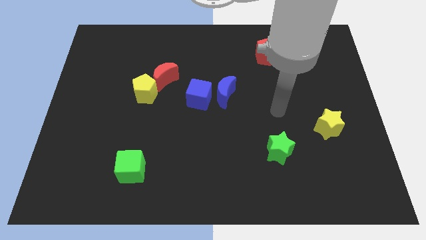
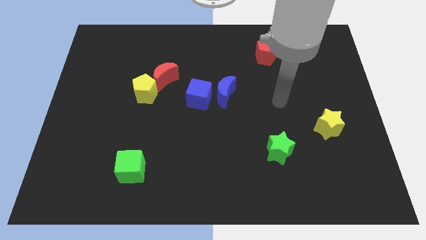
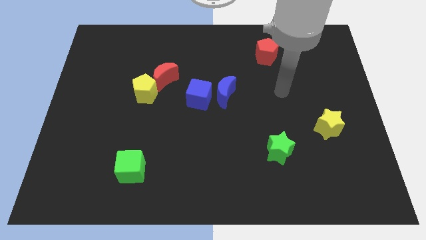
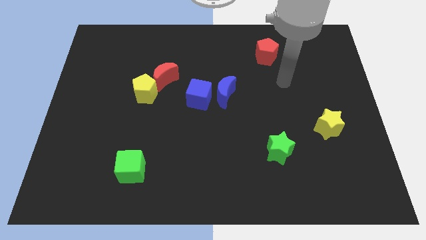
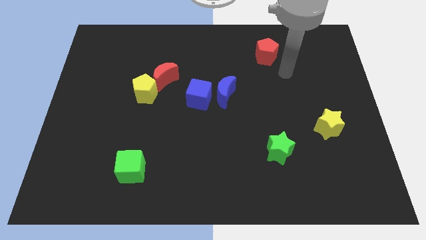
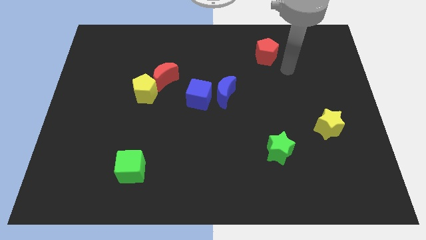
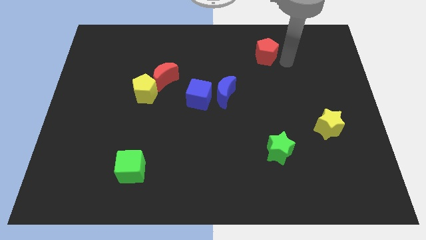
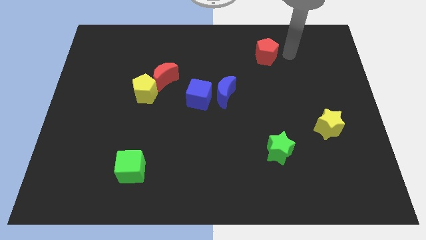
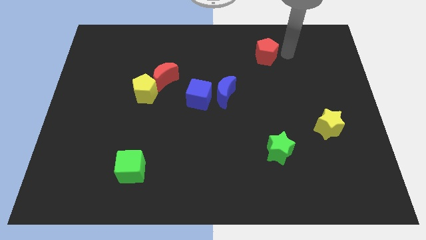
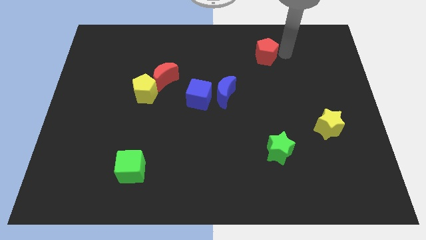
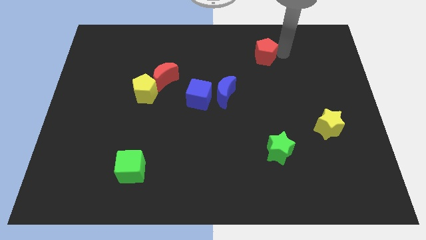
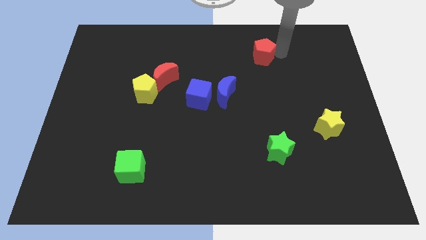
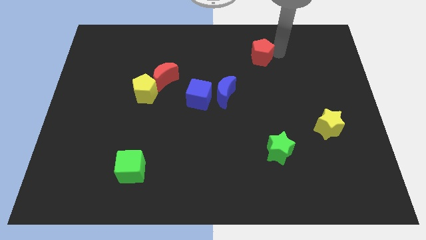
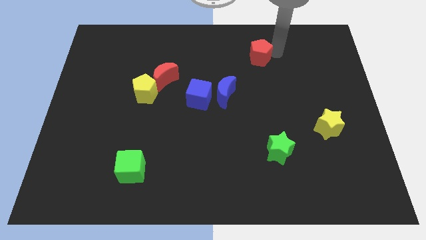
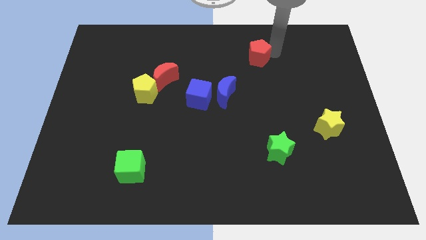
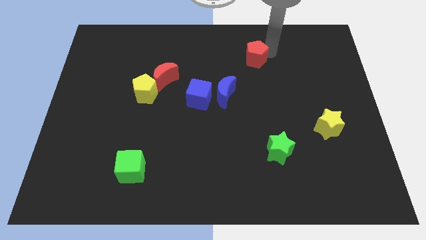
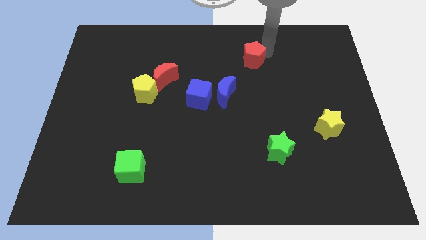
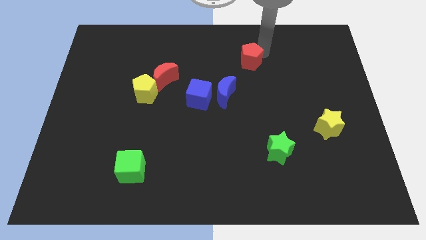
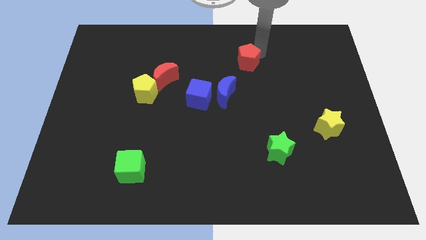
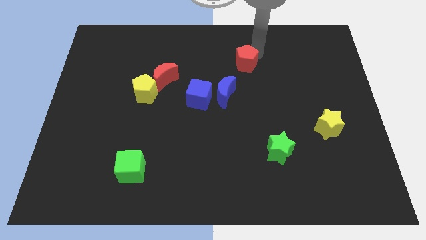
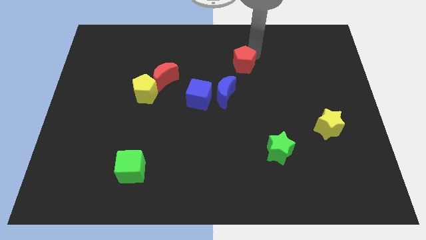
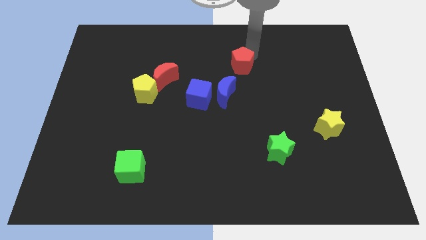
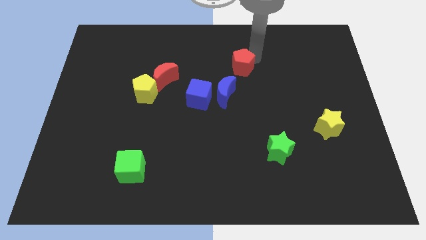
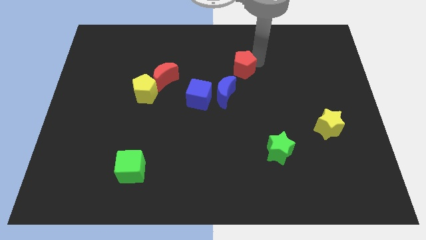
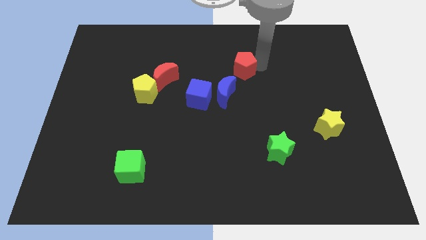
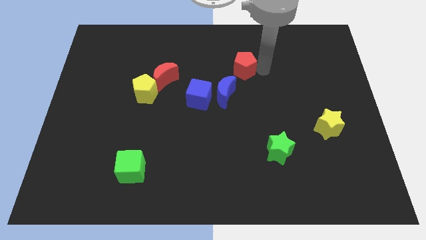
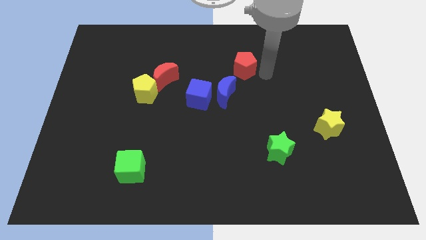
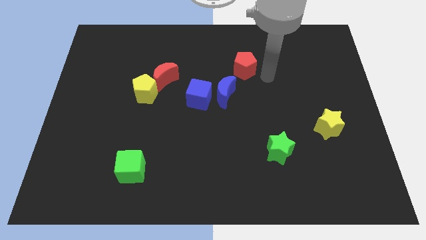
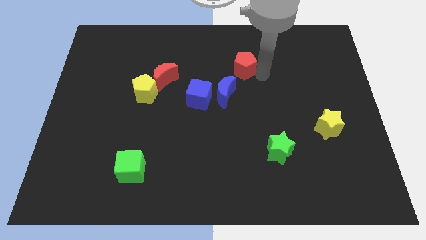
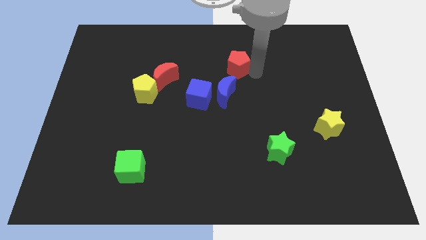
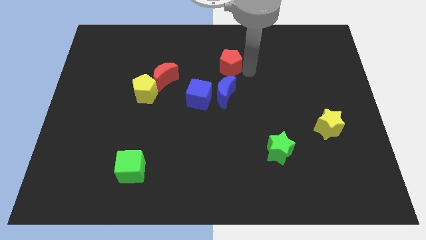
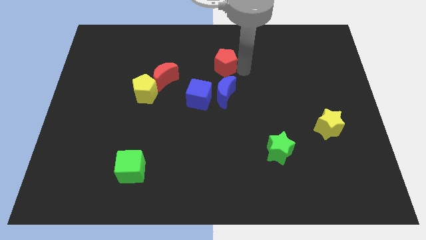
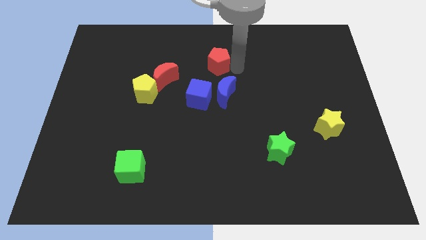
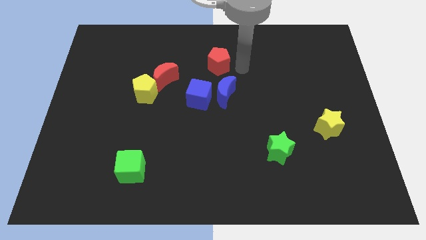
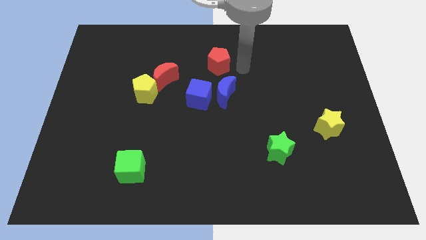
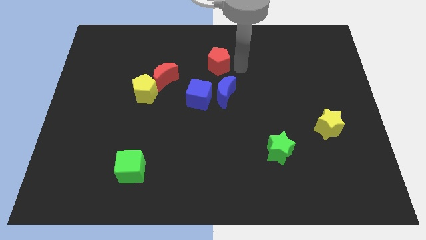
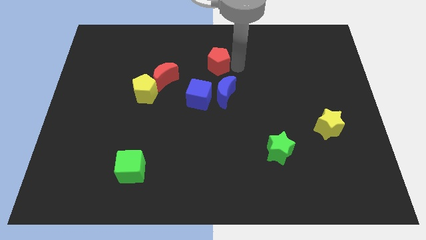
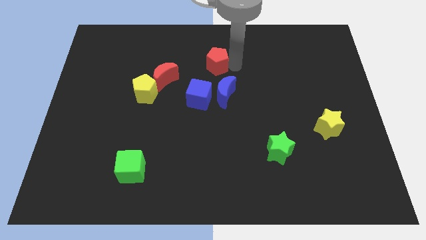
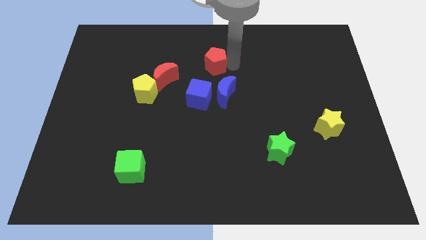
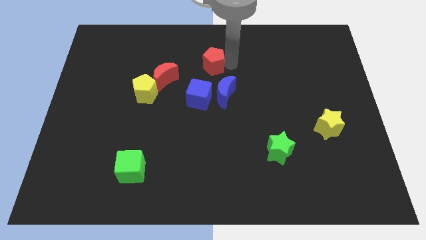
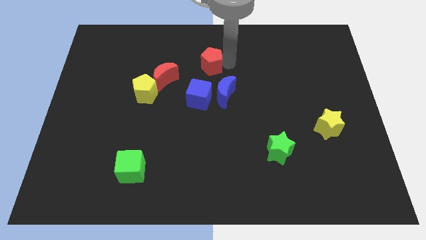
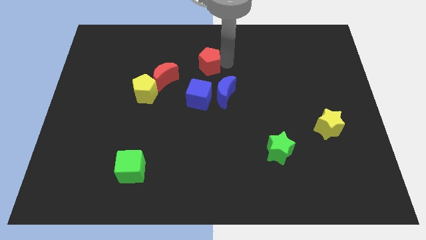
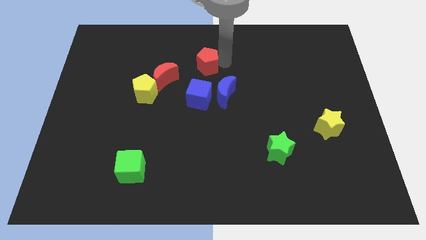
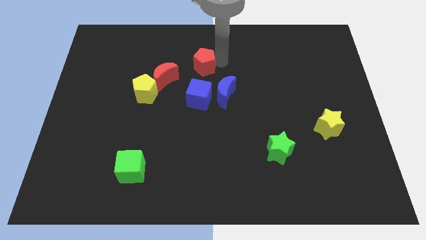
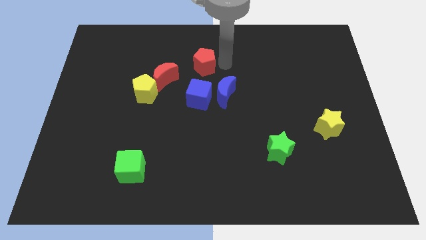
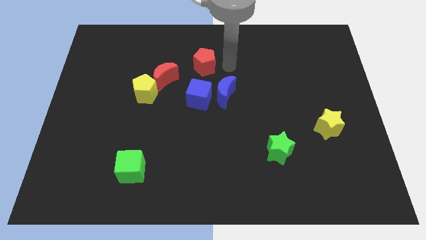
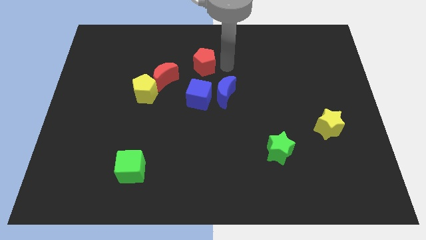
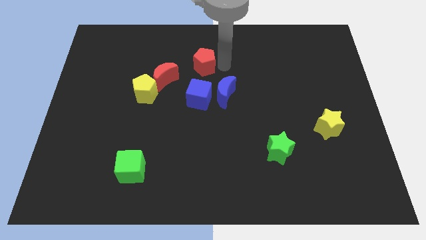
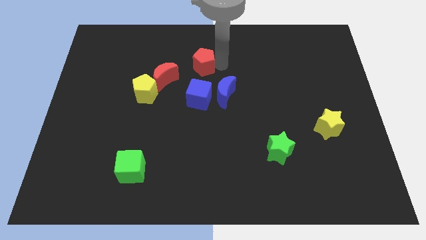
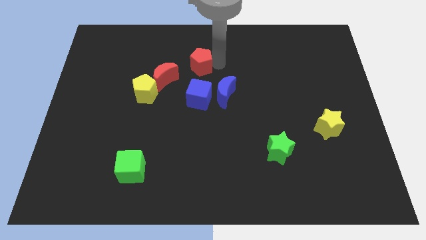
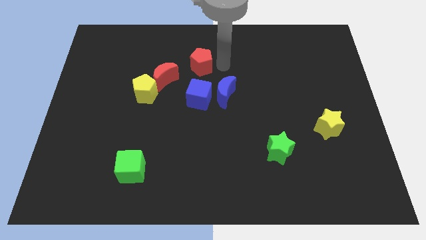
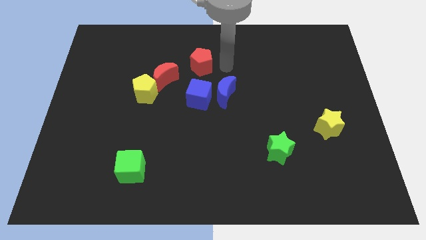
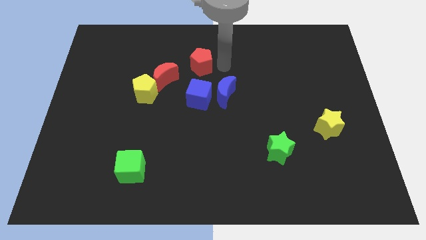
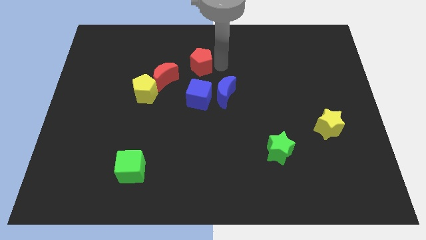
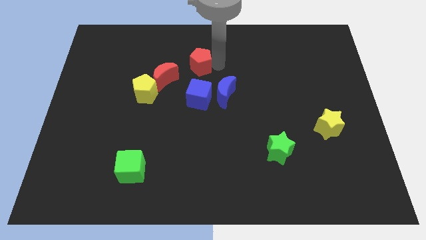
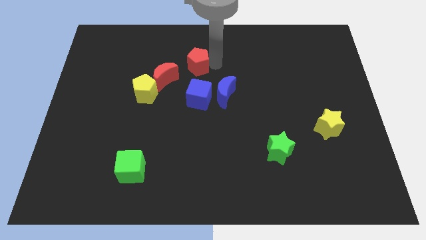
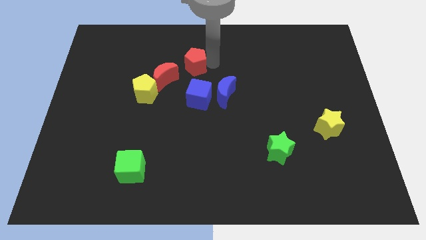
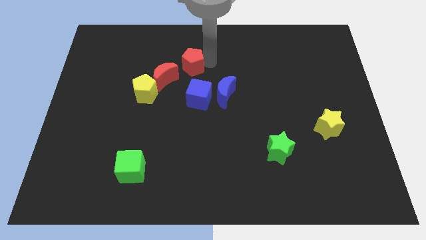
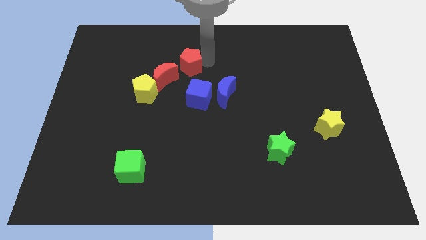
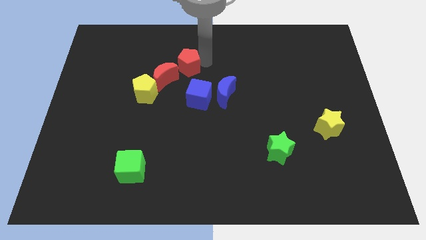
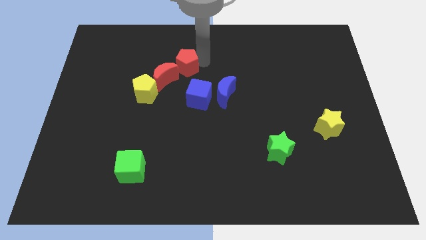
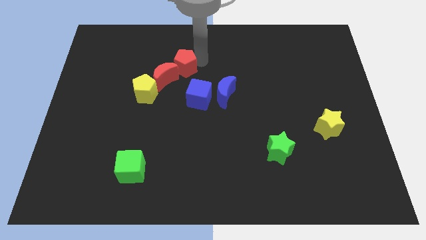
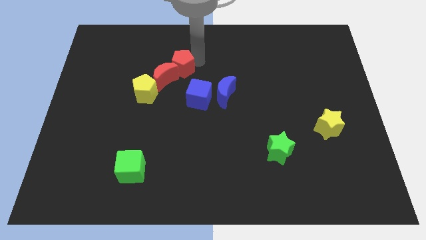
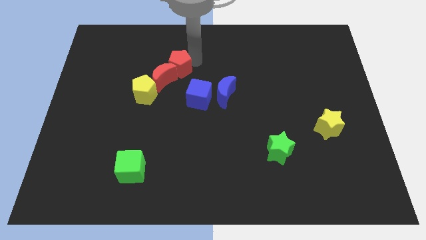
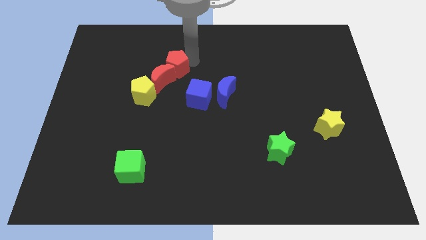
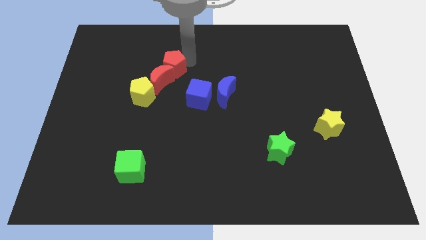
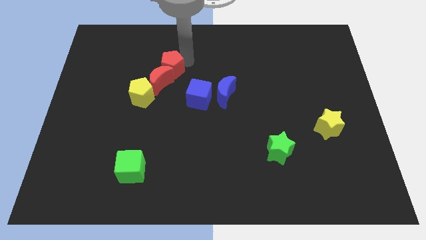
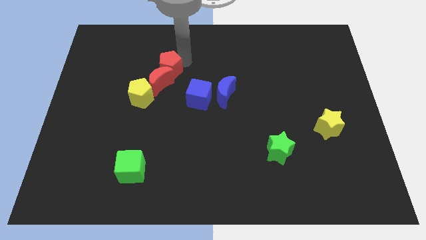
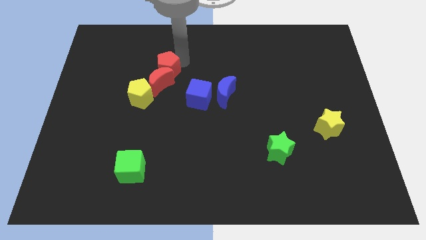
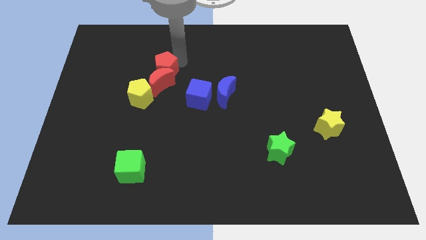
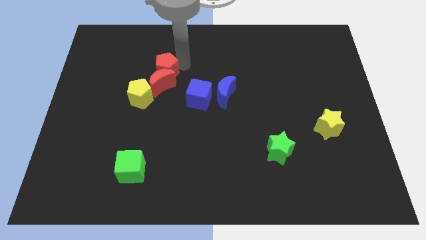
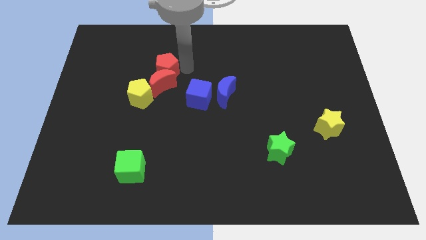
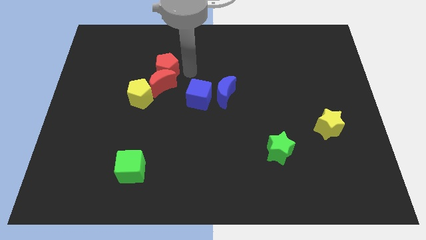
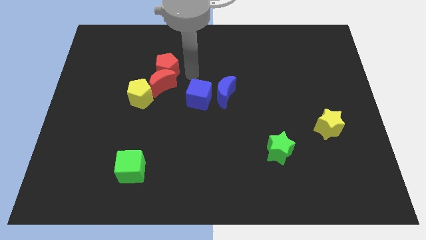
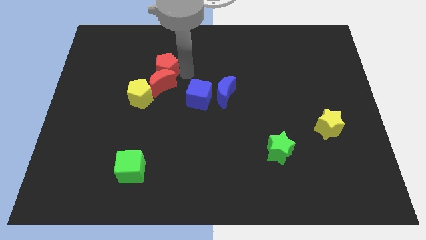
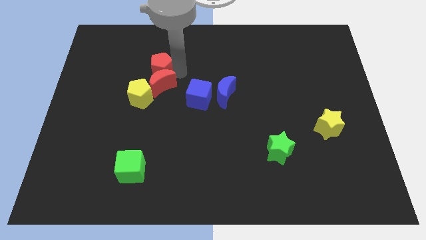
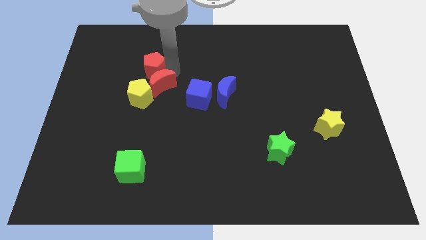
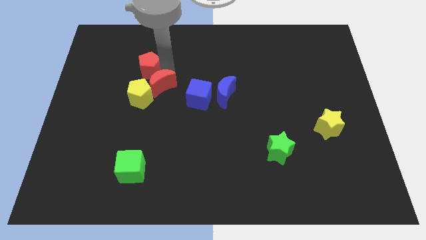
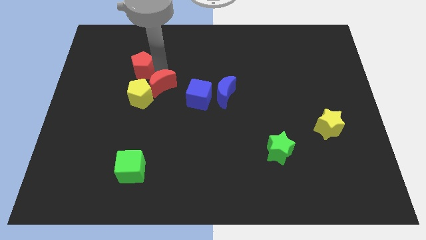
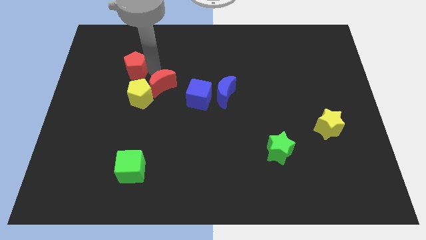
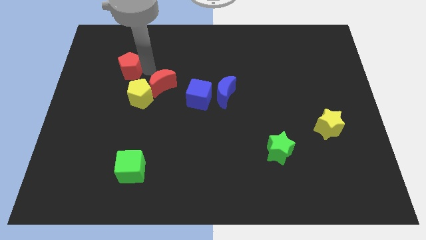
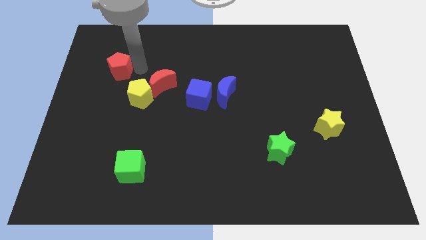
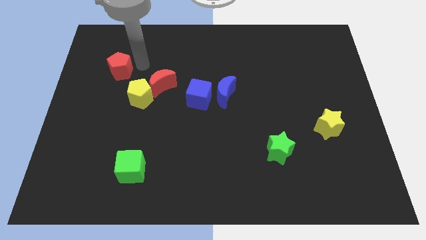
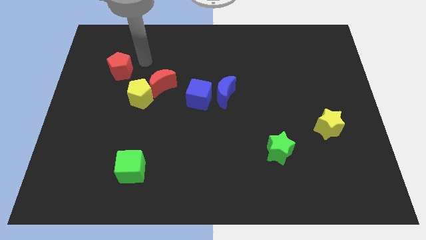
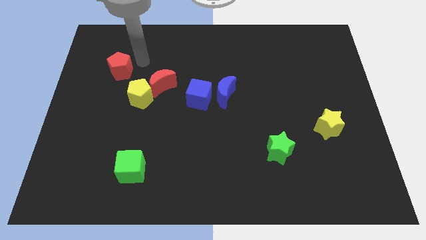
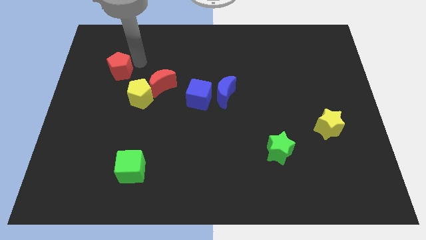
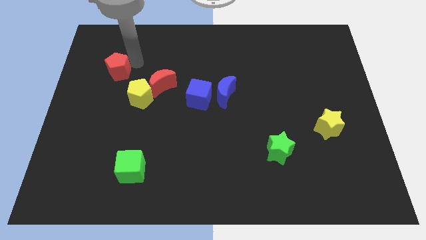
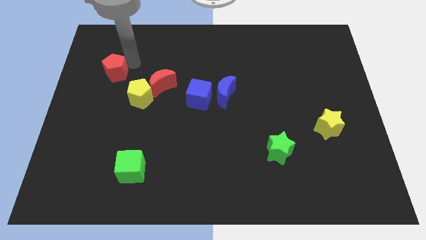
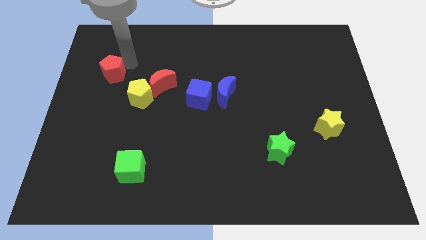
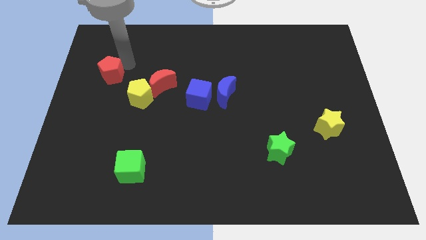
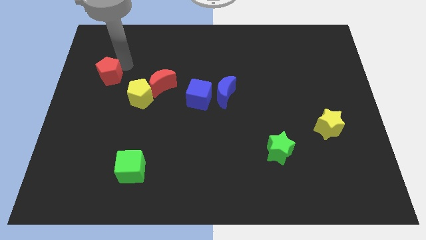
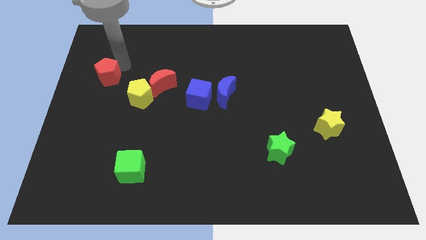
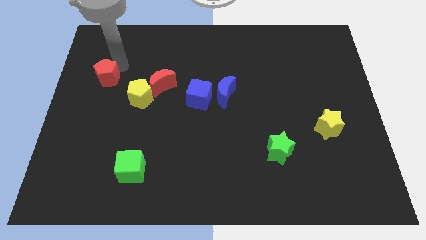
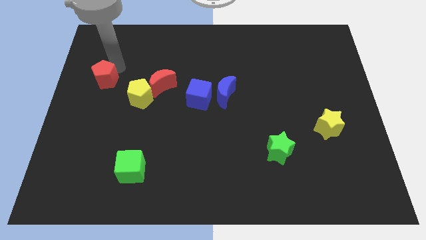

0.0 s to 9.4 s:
push the red pentagon to the center left
